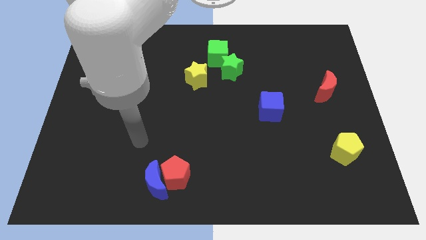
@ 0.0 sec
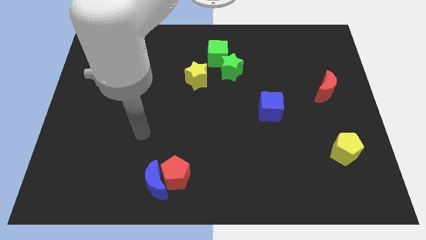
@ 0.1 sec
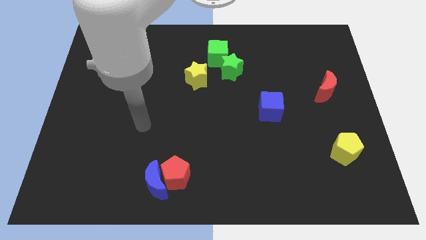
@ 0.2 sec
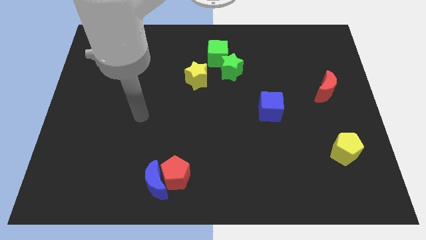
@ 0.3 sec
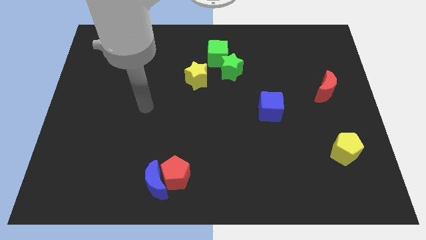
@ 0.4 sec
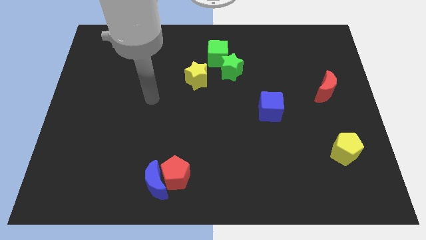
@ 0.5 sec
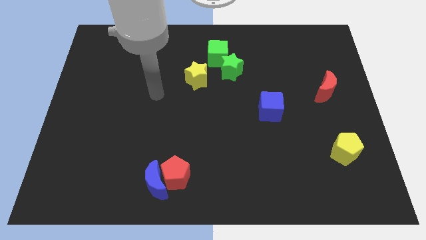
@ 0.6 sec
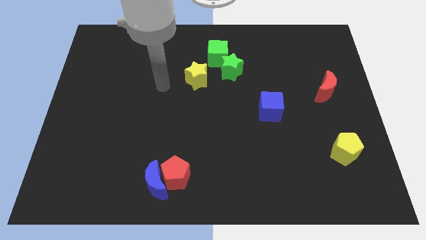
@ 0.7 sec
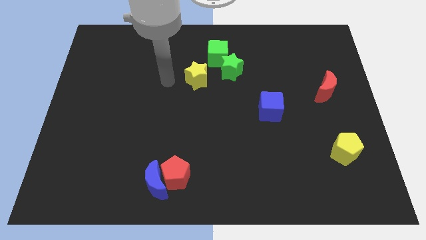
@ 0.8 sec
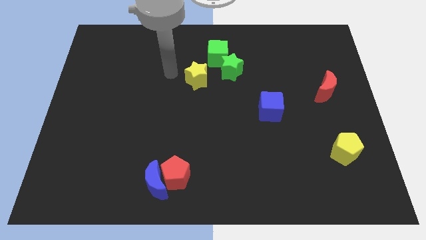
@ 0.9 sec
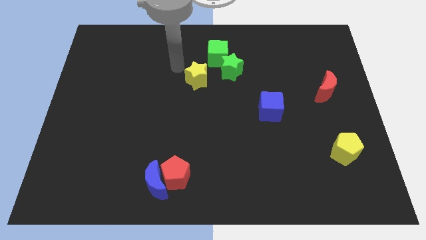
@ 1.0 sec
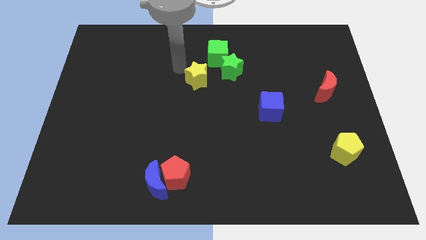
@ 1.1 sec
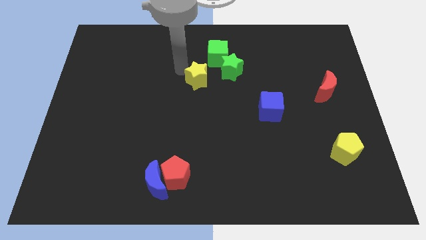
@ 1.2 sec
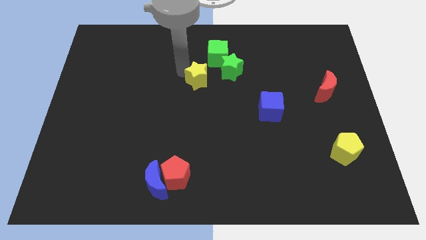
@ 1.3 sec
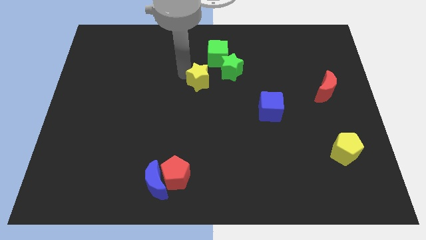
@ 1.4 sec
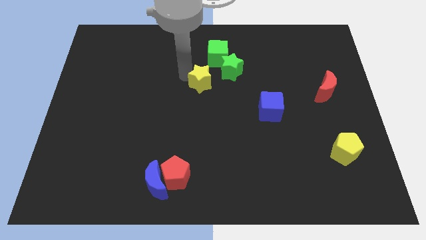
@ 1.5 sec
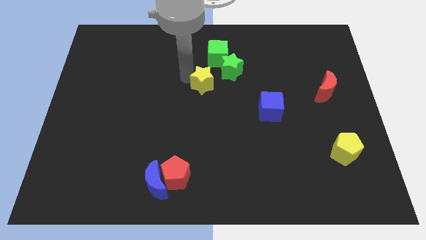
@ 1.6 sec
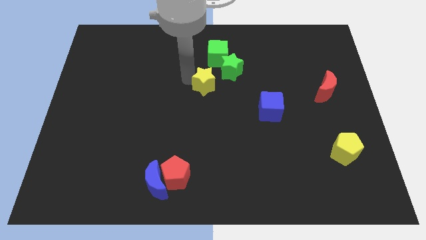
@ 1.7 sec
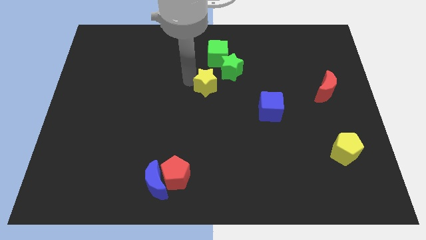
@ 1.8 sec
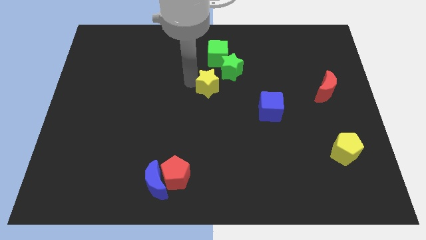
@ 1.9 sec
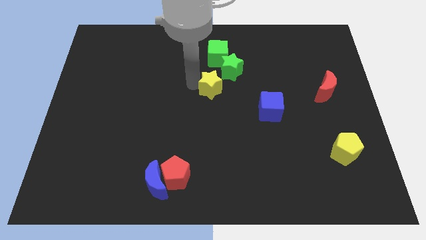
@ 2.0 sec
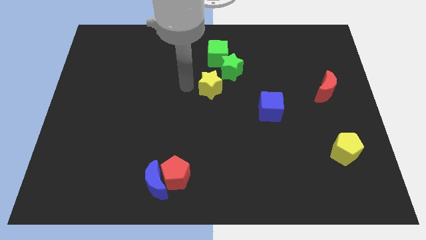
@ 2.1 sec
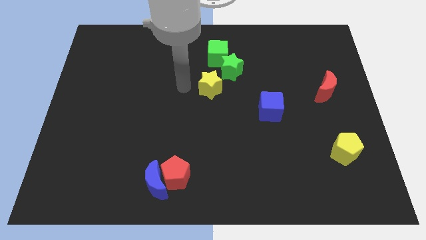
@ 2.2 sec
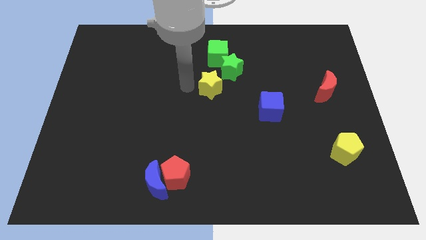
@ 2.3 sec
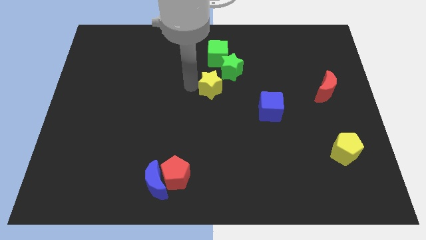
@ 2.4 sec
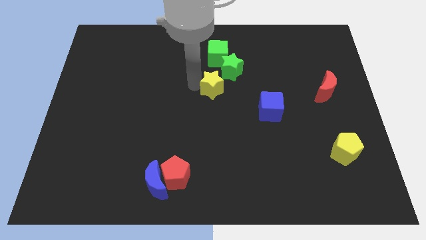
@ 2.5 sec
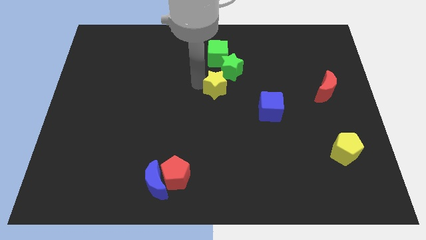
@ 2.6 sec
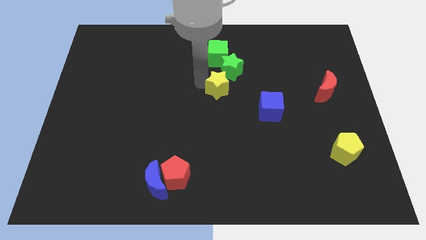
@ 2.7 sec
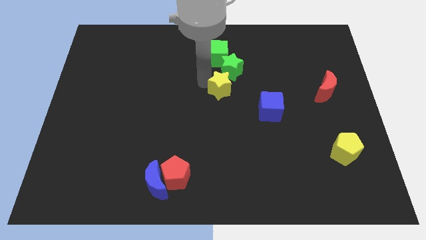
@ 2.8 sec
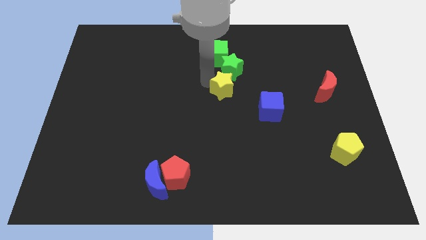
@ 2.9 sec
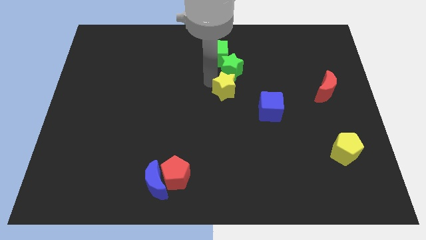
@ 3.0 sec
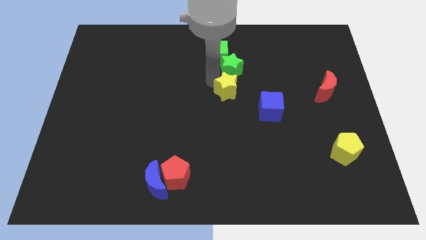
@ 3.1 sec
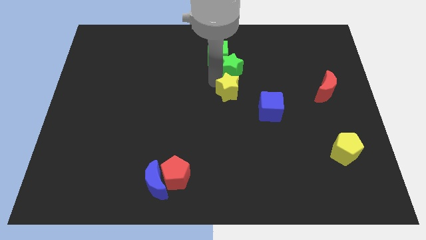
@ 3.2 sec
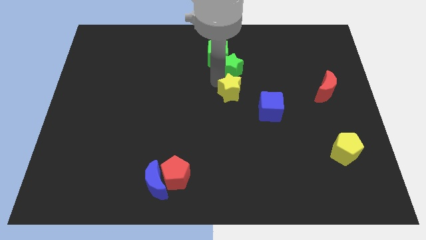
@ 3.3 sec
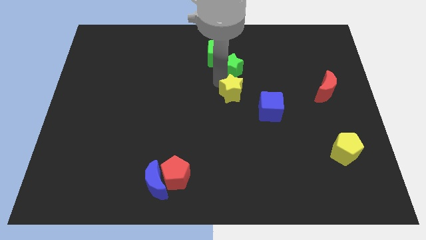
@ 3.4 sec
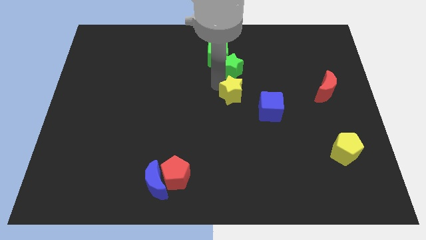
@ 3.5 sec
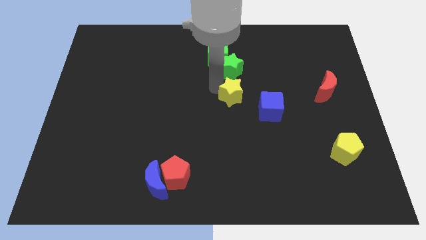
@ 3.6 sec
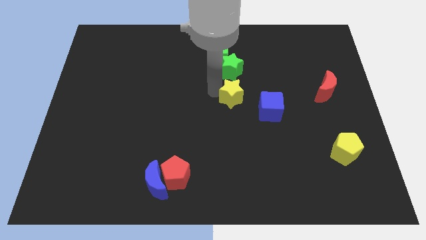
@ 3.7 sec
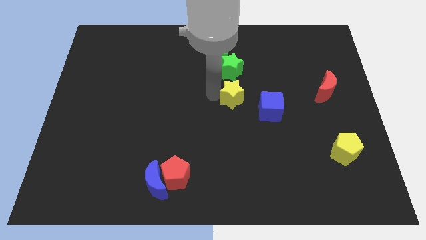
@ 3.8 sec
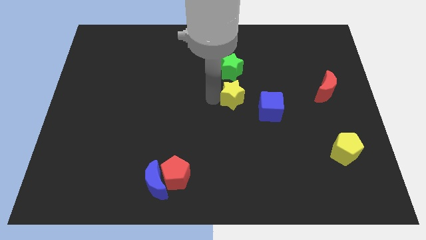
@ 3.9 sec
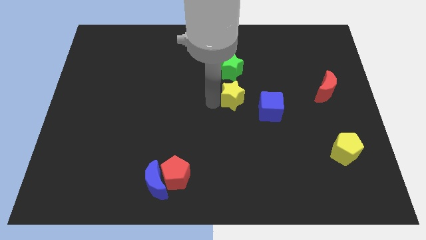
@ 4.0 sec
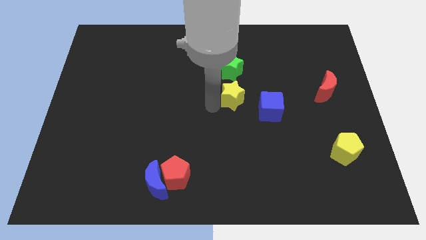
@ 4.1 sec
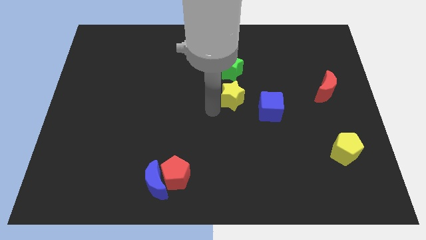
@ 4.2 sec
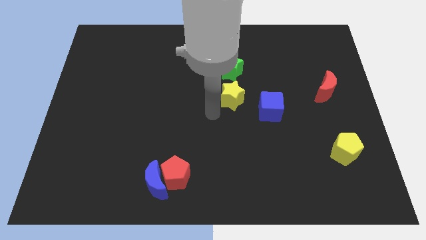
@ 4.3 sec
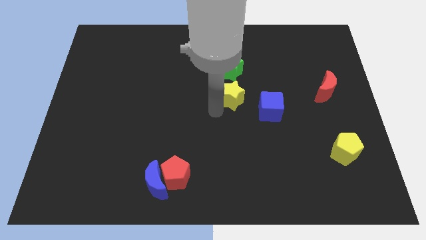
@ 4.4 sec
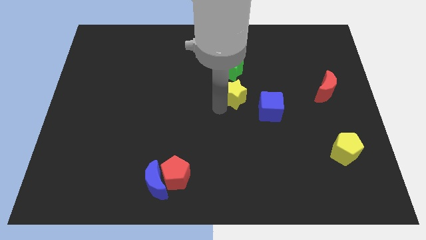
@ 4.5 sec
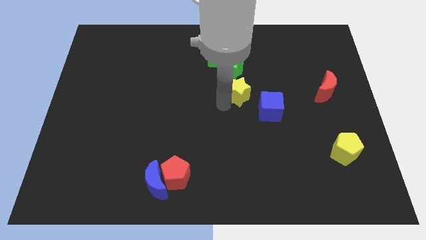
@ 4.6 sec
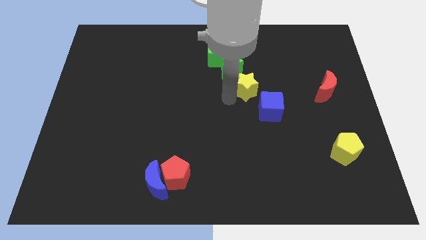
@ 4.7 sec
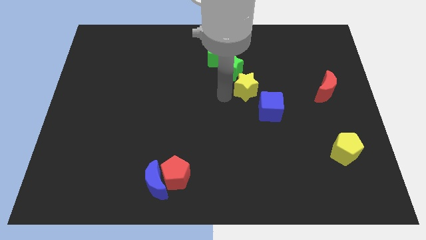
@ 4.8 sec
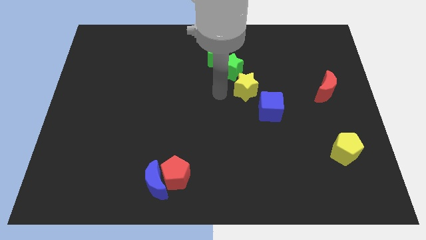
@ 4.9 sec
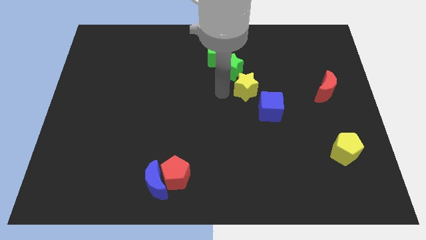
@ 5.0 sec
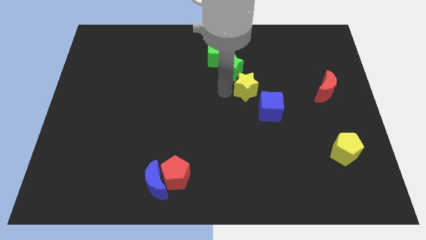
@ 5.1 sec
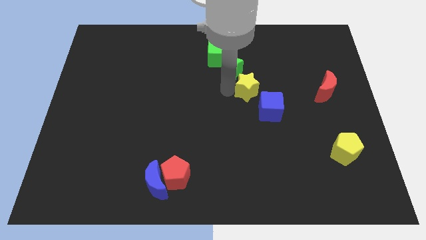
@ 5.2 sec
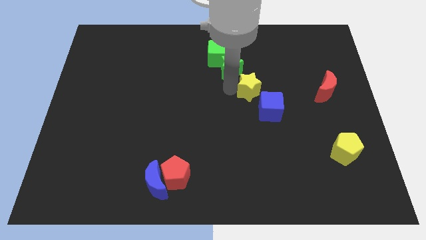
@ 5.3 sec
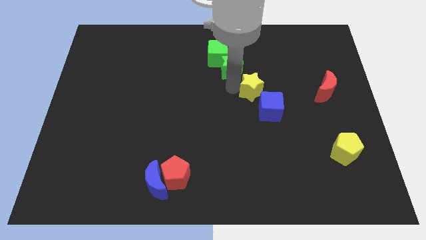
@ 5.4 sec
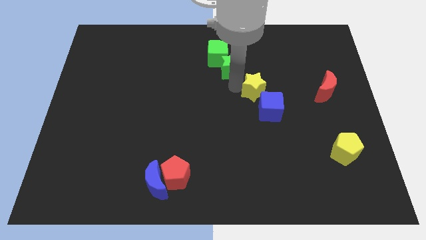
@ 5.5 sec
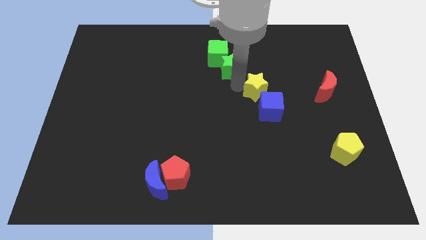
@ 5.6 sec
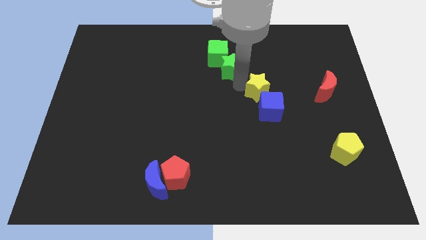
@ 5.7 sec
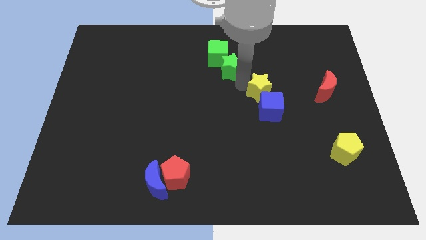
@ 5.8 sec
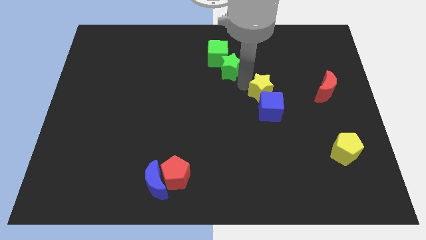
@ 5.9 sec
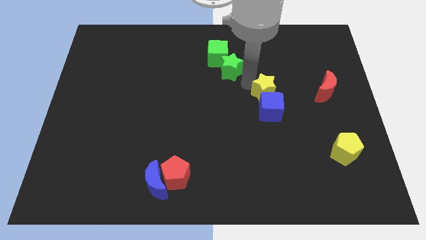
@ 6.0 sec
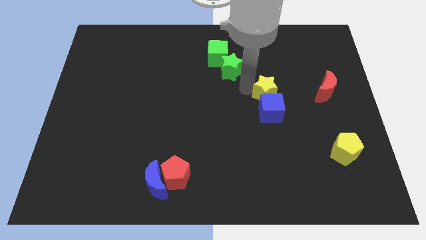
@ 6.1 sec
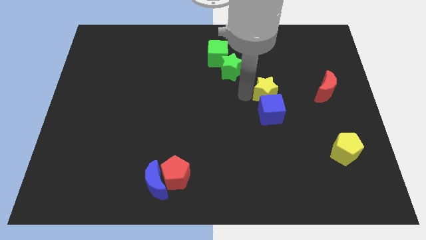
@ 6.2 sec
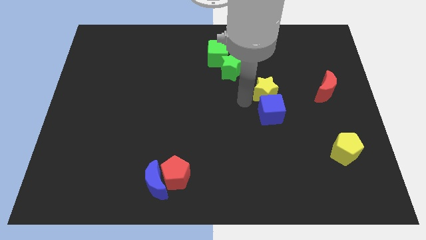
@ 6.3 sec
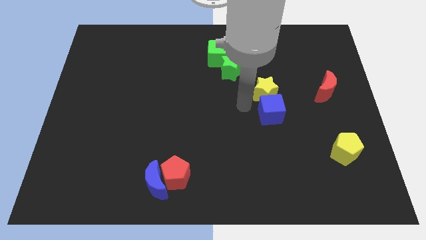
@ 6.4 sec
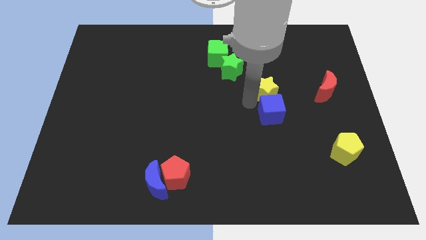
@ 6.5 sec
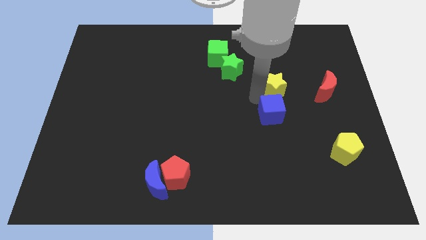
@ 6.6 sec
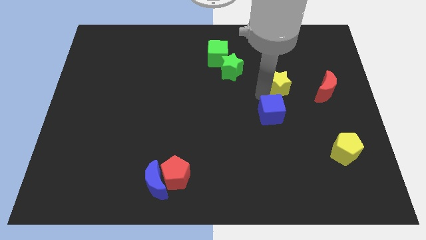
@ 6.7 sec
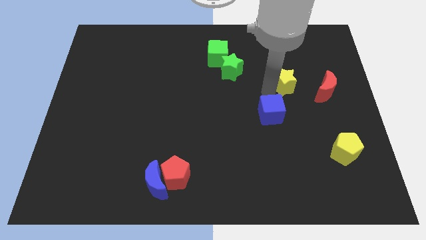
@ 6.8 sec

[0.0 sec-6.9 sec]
move the yellow star to the right

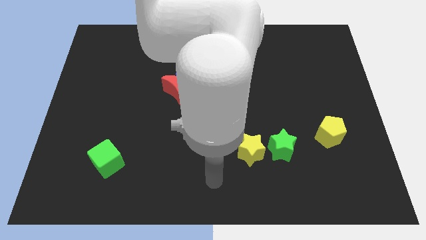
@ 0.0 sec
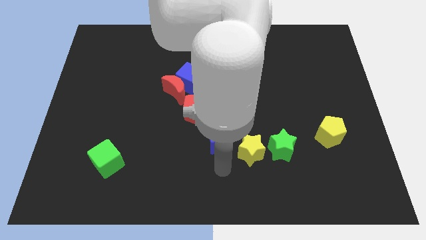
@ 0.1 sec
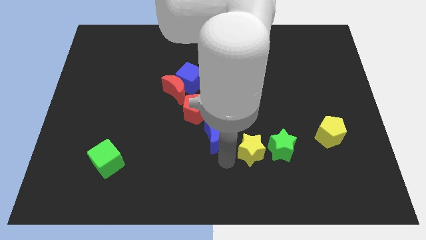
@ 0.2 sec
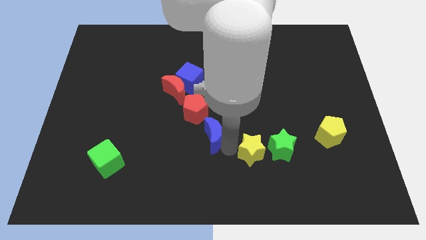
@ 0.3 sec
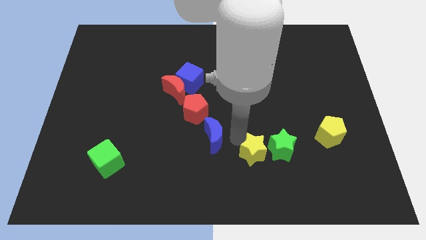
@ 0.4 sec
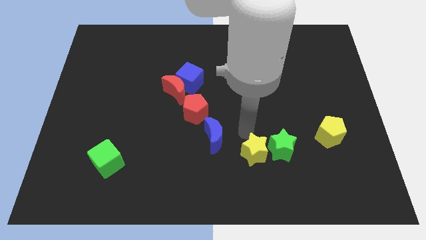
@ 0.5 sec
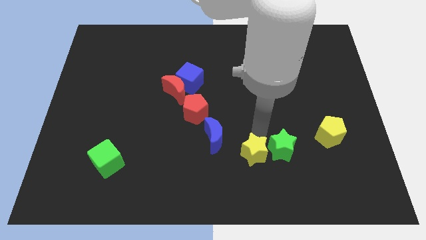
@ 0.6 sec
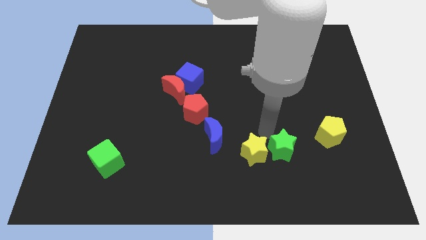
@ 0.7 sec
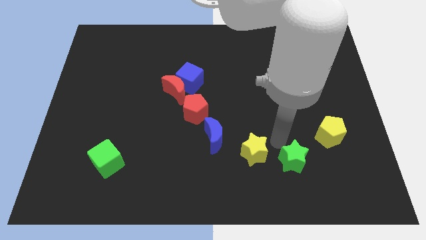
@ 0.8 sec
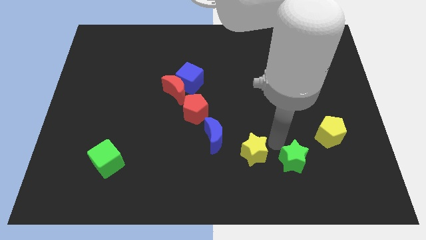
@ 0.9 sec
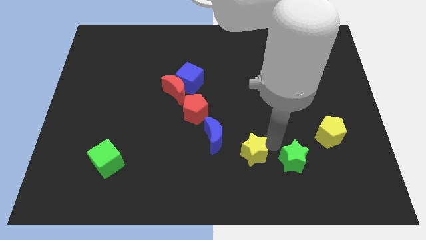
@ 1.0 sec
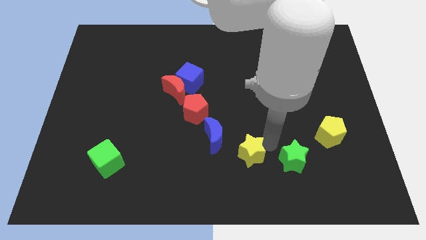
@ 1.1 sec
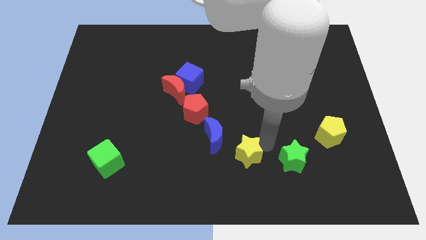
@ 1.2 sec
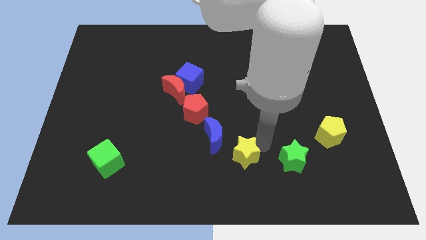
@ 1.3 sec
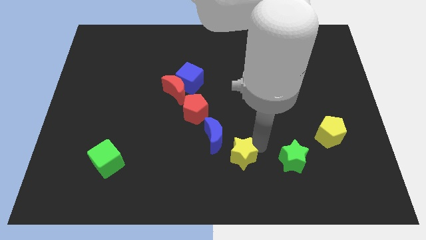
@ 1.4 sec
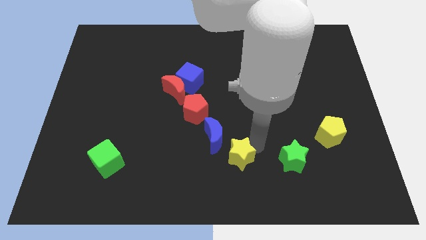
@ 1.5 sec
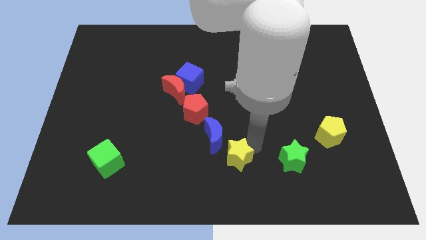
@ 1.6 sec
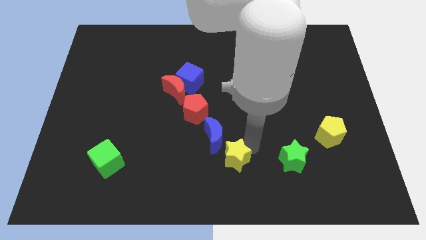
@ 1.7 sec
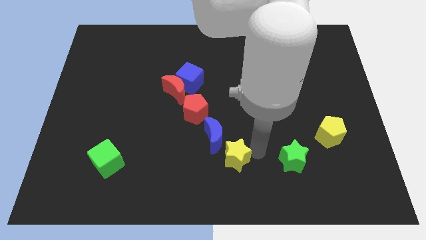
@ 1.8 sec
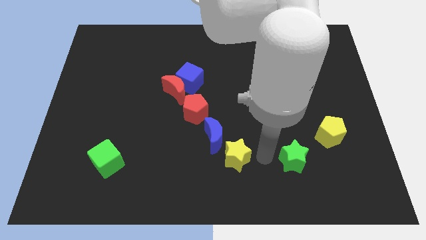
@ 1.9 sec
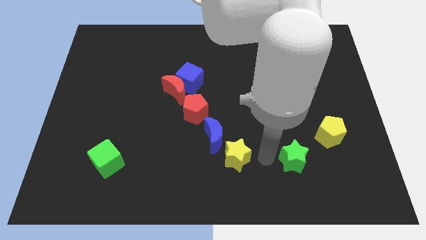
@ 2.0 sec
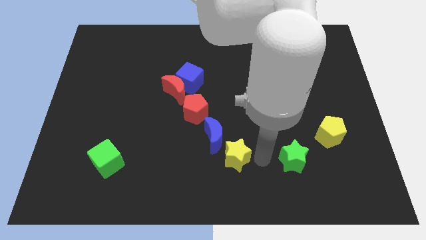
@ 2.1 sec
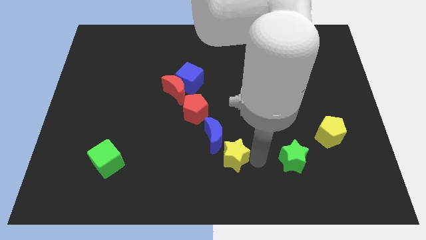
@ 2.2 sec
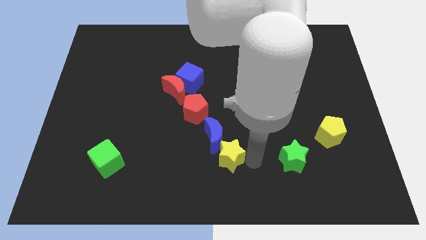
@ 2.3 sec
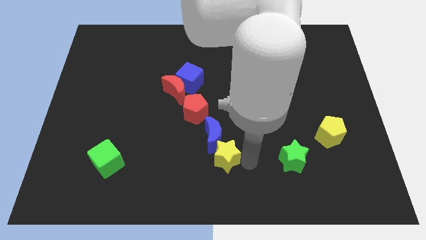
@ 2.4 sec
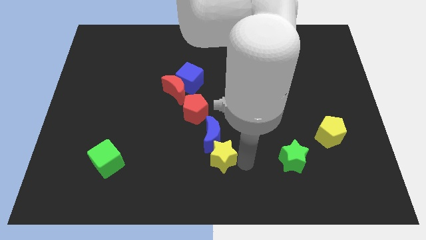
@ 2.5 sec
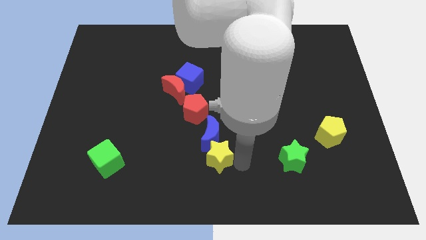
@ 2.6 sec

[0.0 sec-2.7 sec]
push the yellow star left a little
